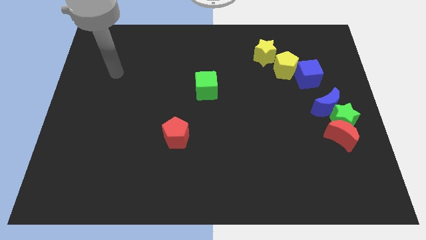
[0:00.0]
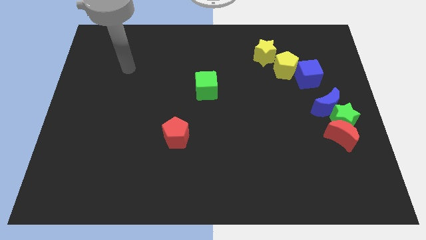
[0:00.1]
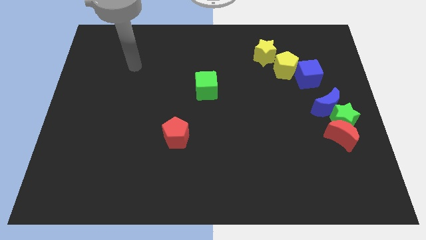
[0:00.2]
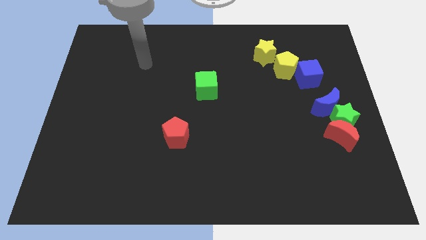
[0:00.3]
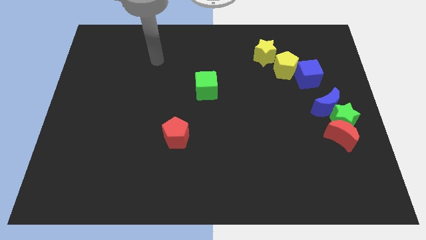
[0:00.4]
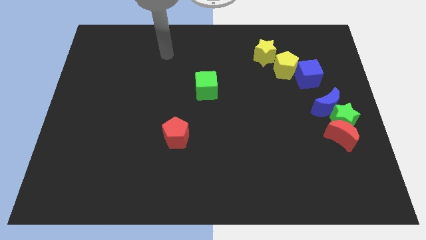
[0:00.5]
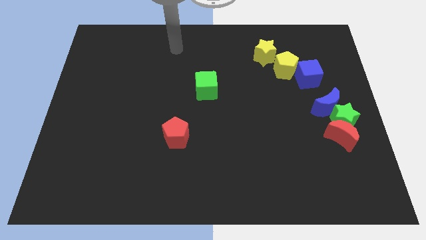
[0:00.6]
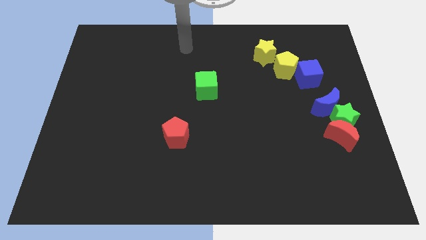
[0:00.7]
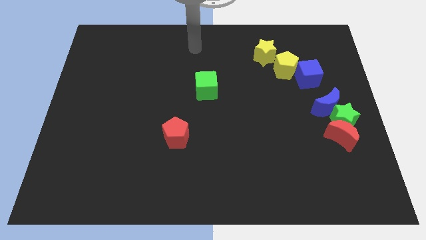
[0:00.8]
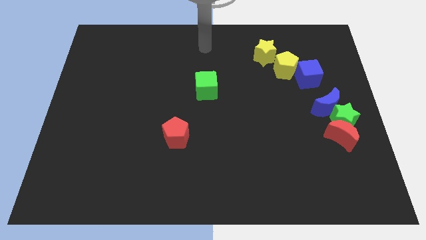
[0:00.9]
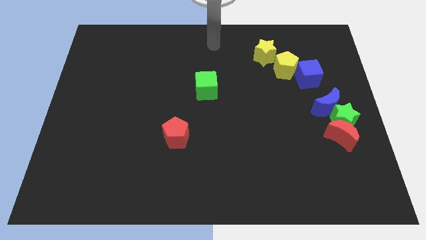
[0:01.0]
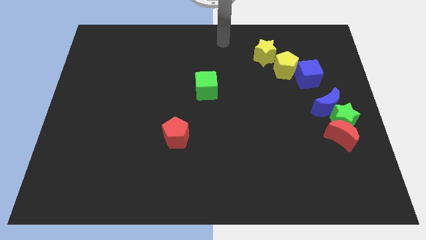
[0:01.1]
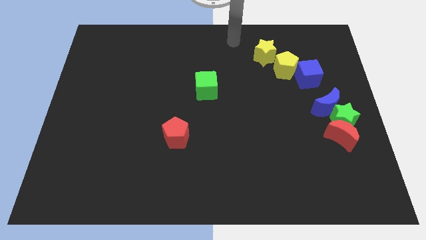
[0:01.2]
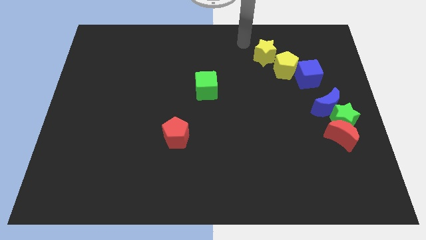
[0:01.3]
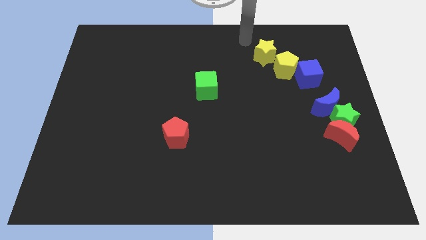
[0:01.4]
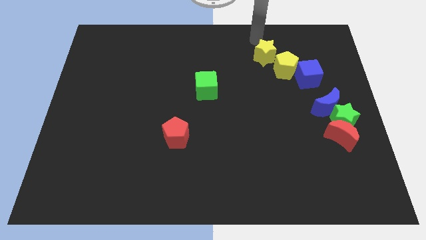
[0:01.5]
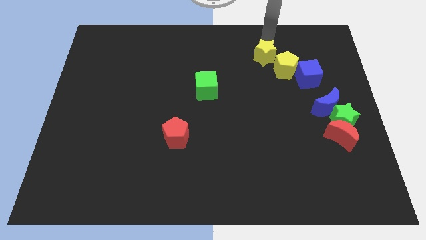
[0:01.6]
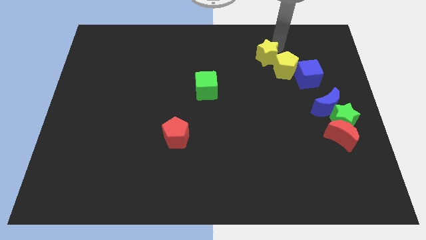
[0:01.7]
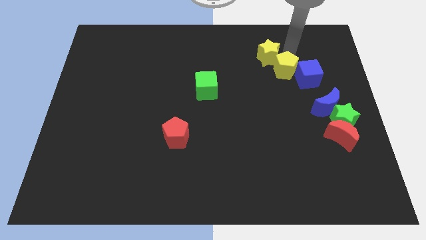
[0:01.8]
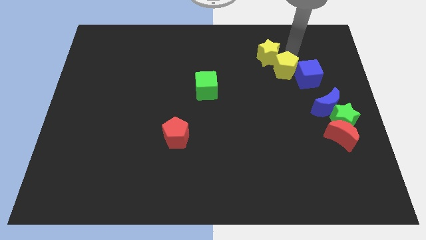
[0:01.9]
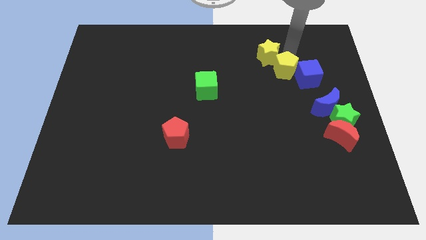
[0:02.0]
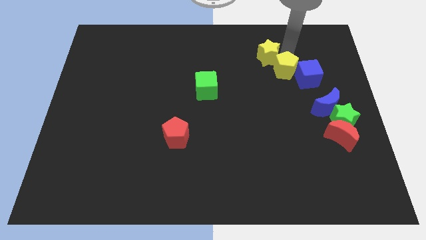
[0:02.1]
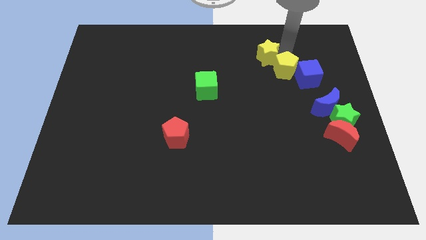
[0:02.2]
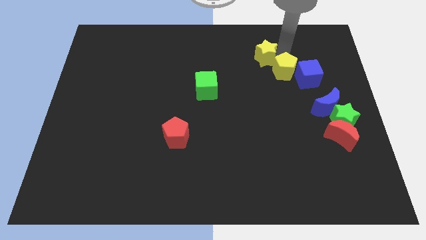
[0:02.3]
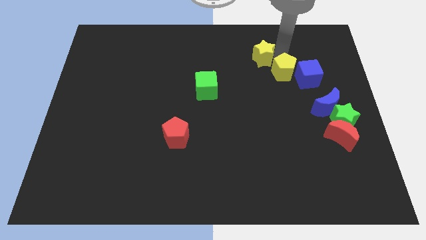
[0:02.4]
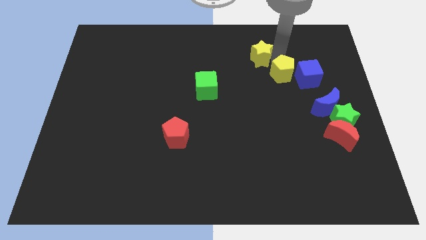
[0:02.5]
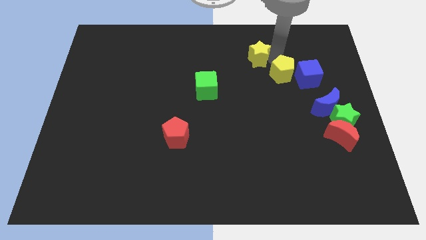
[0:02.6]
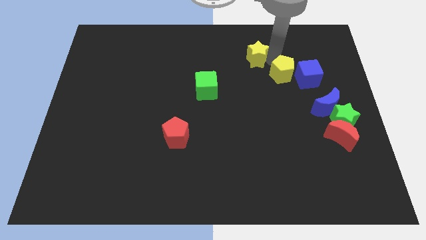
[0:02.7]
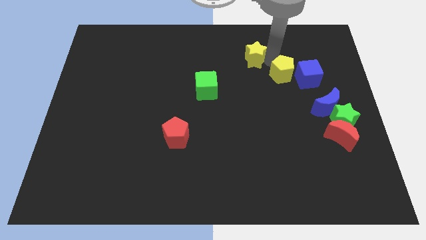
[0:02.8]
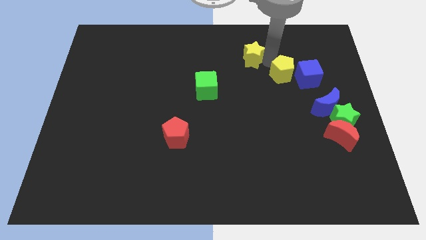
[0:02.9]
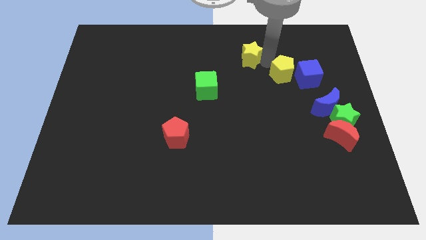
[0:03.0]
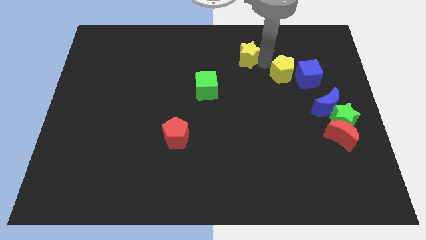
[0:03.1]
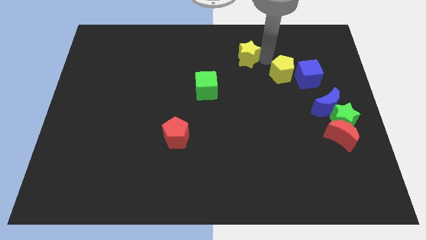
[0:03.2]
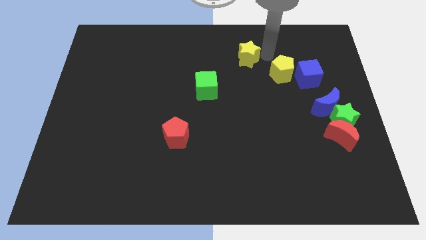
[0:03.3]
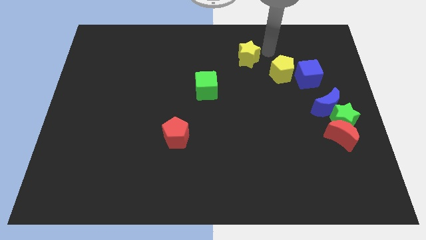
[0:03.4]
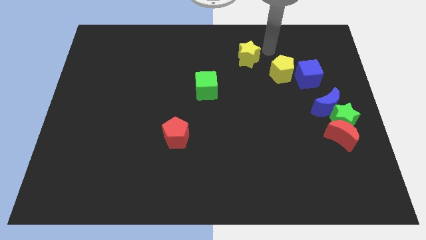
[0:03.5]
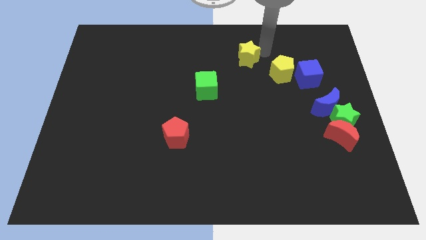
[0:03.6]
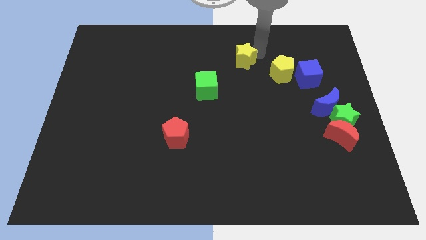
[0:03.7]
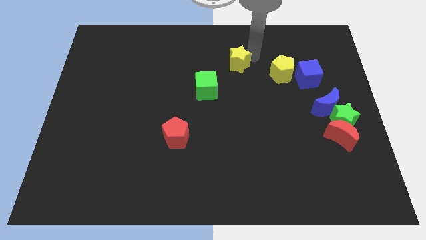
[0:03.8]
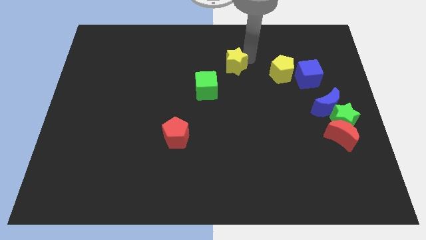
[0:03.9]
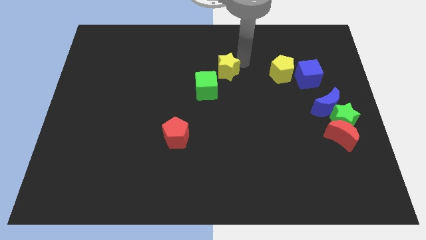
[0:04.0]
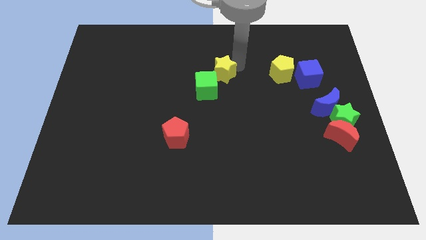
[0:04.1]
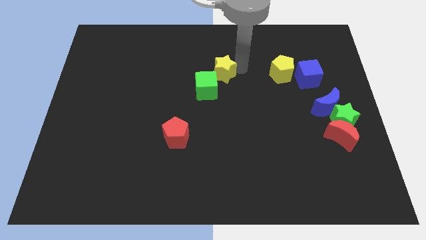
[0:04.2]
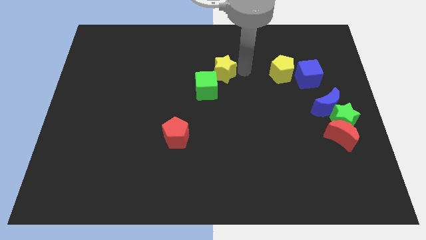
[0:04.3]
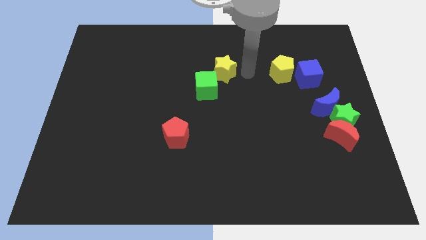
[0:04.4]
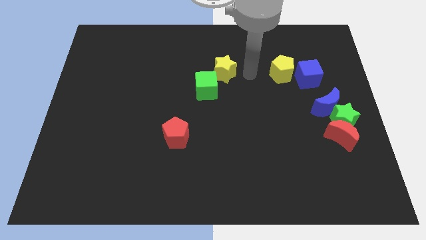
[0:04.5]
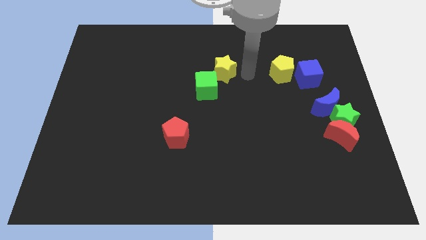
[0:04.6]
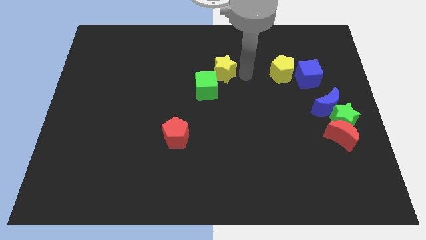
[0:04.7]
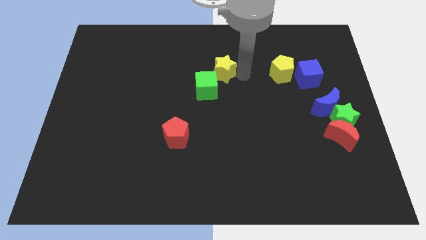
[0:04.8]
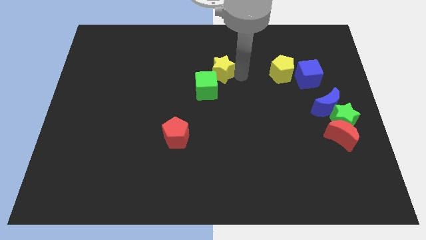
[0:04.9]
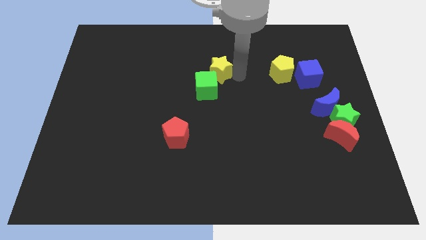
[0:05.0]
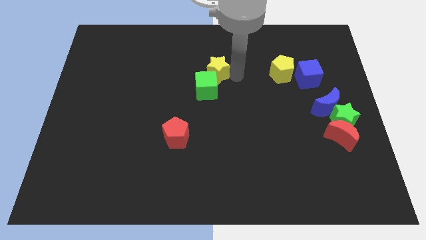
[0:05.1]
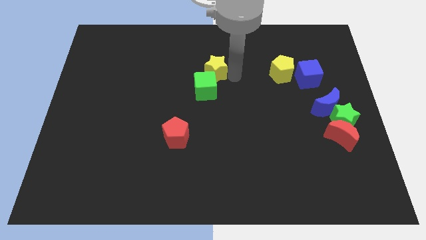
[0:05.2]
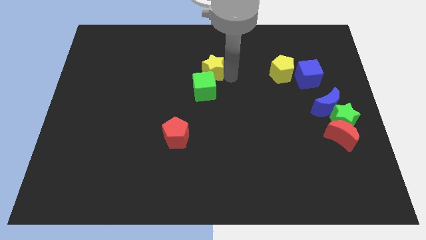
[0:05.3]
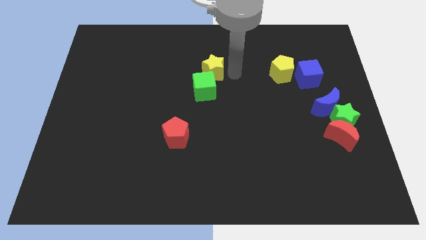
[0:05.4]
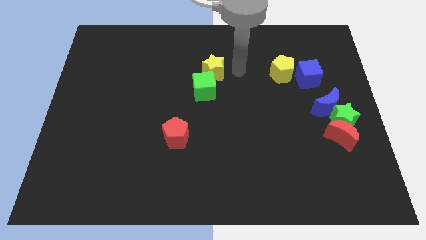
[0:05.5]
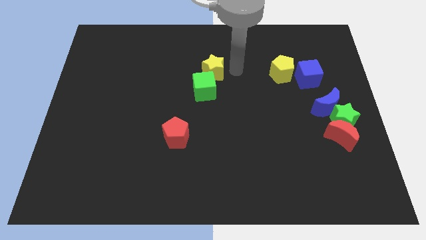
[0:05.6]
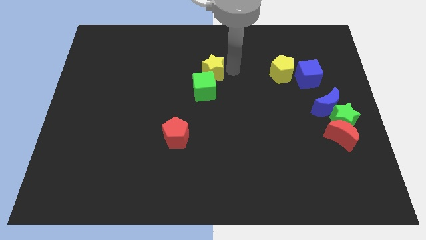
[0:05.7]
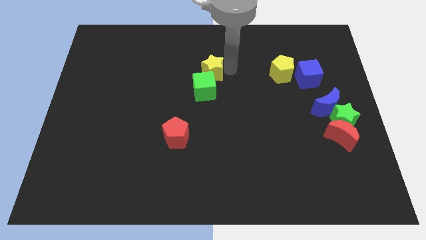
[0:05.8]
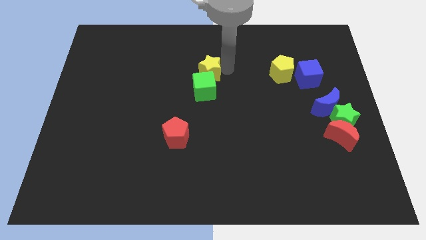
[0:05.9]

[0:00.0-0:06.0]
put the yellow star to the top left of the green cube
